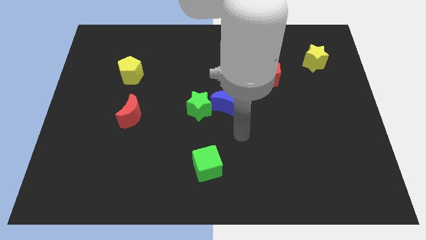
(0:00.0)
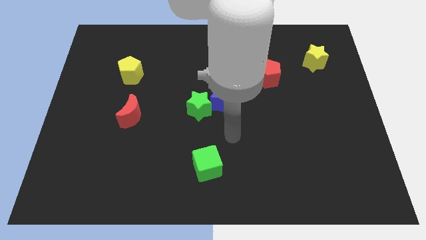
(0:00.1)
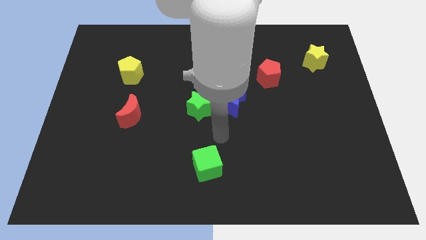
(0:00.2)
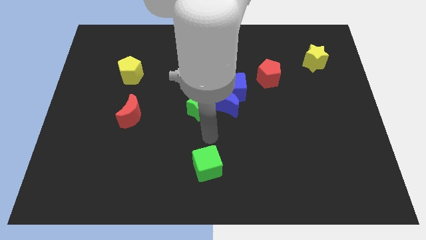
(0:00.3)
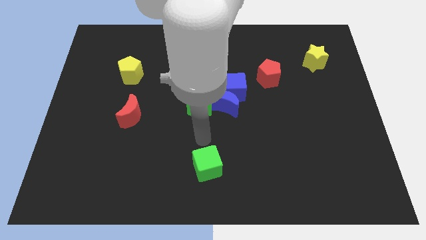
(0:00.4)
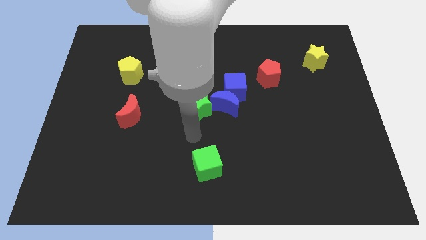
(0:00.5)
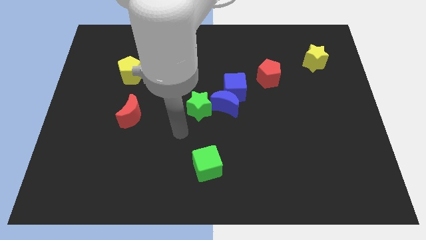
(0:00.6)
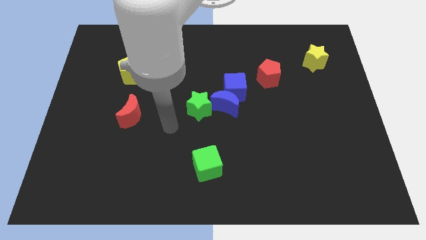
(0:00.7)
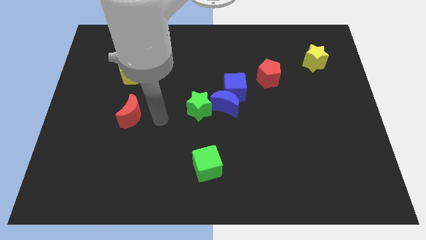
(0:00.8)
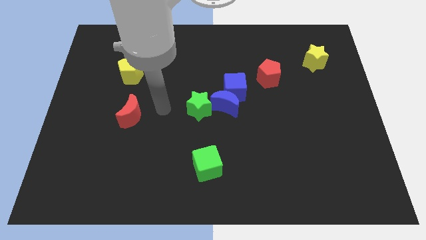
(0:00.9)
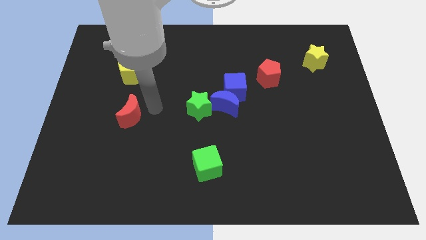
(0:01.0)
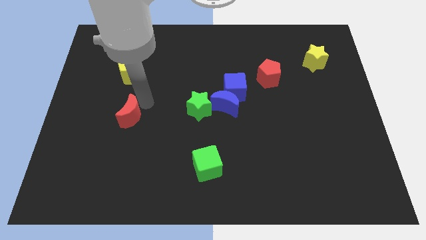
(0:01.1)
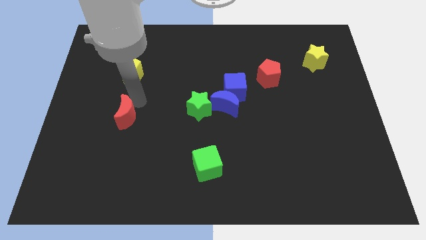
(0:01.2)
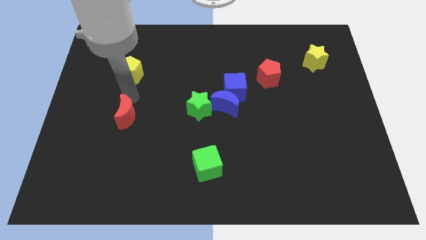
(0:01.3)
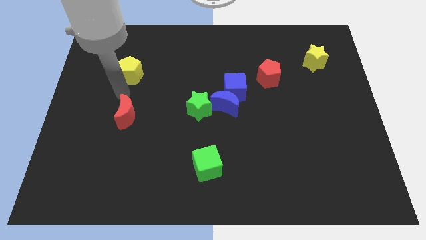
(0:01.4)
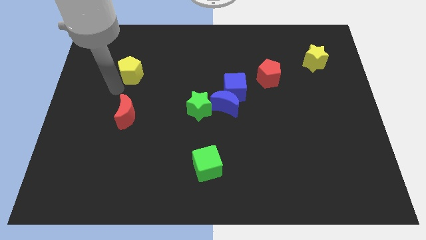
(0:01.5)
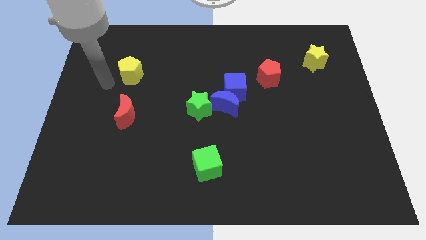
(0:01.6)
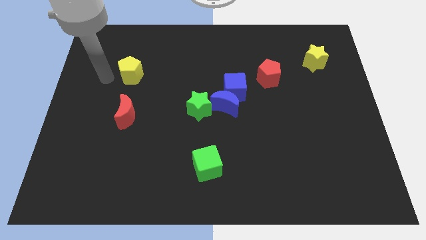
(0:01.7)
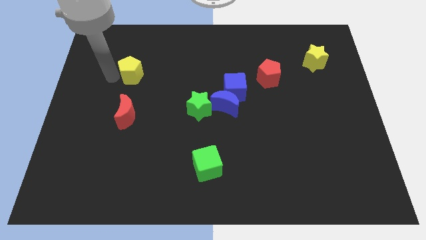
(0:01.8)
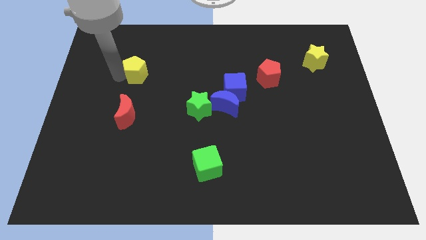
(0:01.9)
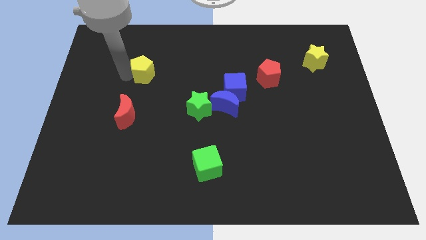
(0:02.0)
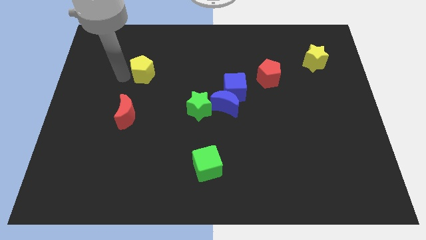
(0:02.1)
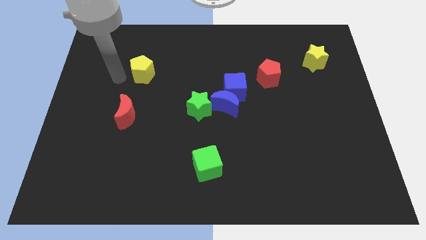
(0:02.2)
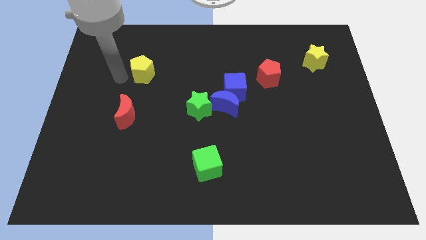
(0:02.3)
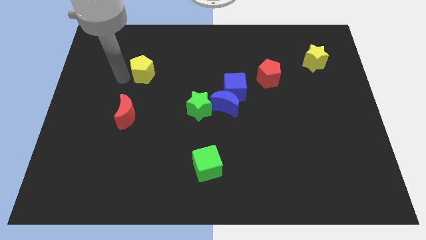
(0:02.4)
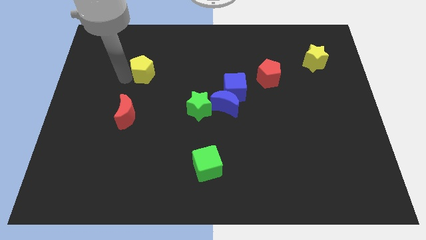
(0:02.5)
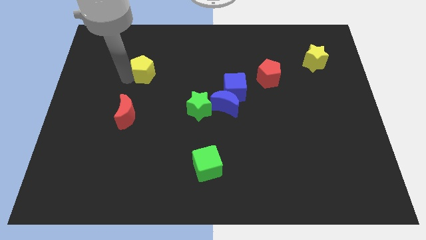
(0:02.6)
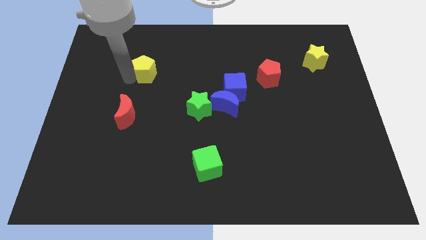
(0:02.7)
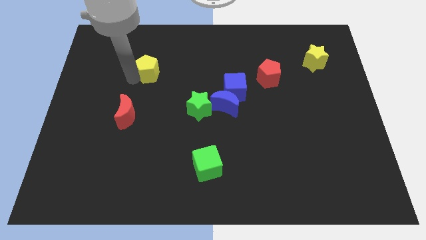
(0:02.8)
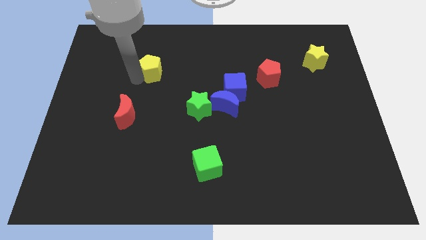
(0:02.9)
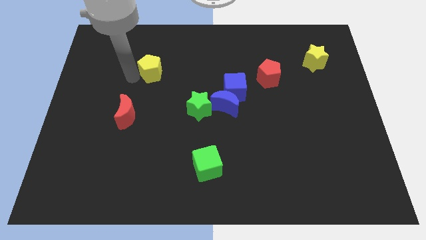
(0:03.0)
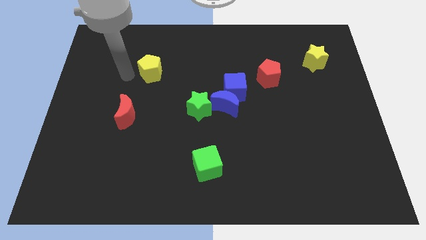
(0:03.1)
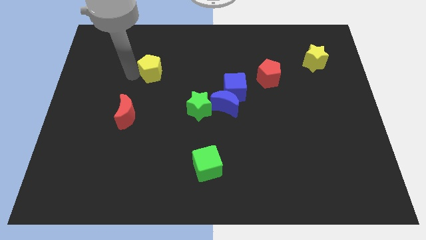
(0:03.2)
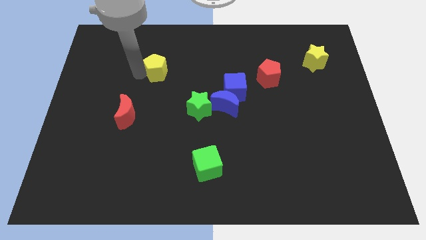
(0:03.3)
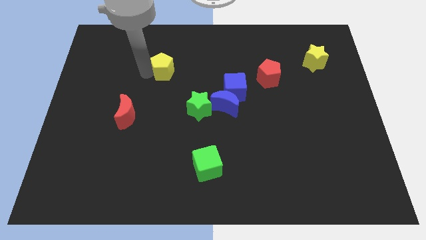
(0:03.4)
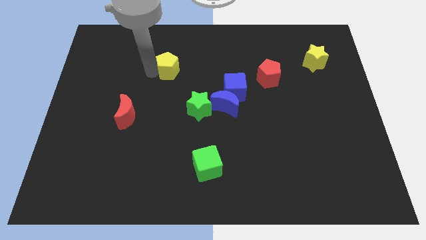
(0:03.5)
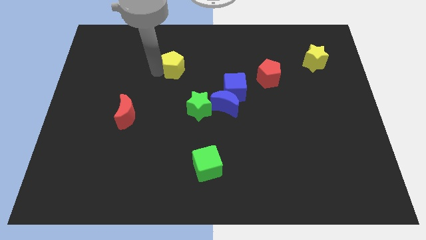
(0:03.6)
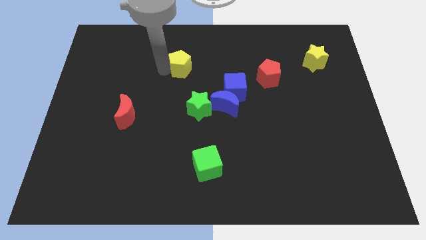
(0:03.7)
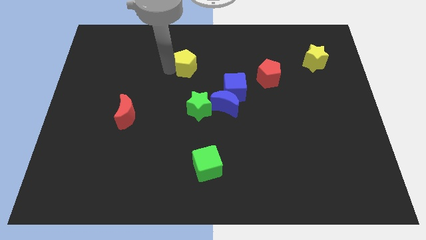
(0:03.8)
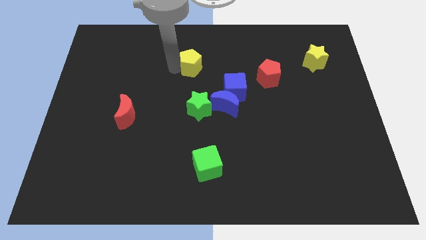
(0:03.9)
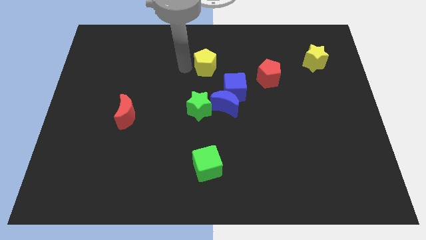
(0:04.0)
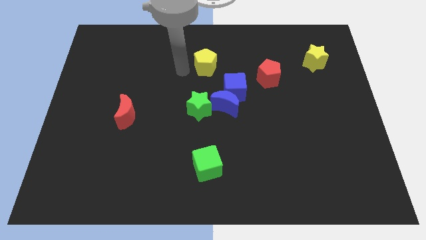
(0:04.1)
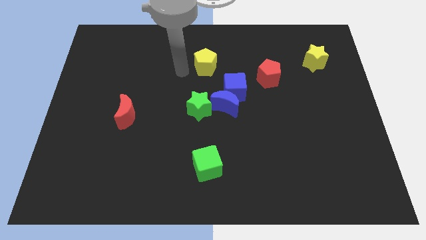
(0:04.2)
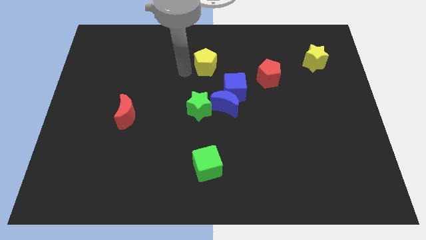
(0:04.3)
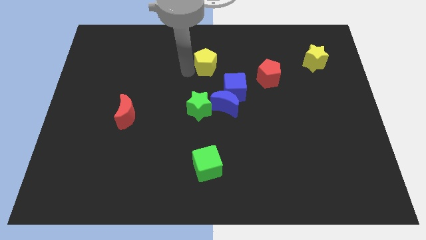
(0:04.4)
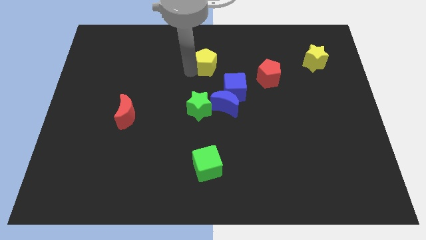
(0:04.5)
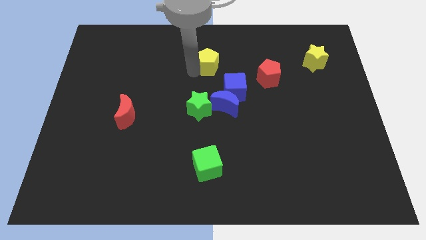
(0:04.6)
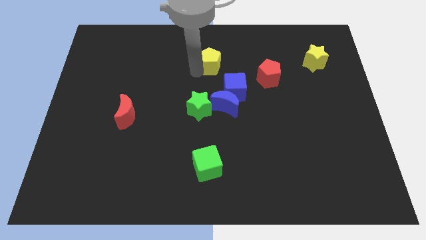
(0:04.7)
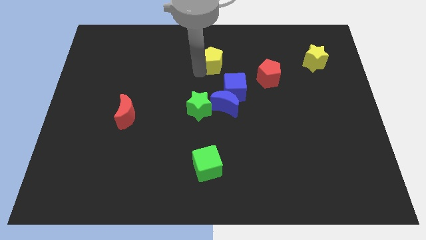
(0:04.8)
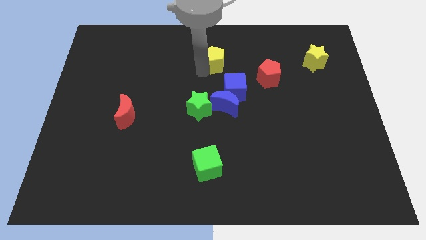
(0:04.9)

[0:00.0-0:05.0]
put the yellow pentagon above the blue cube

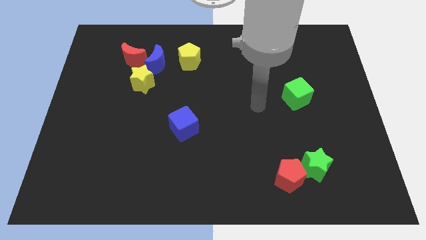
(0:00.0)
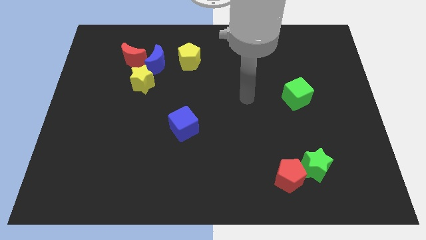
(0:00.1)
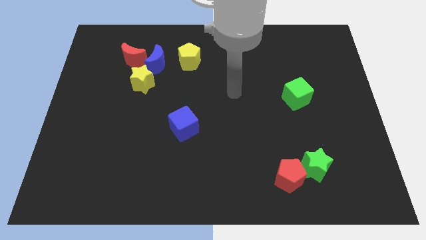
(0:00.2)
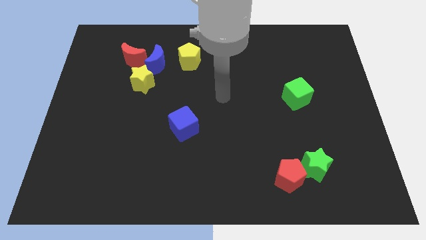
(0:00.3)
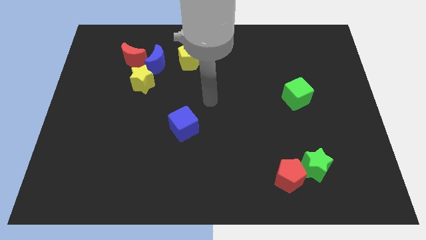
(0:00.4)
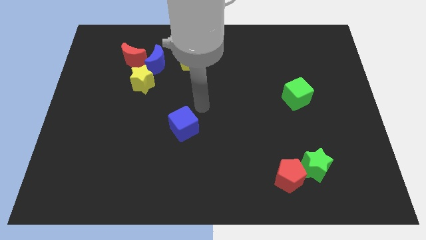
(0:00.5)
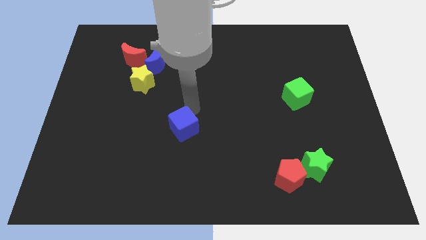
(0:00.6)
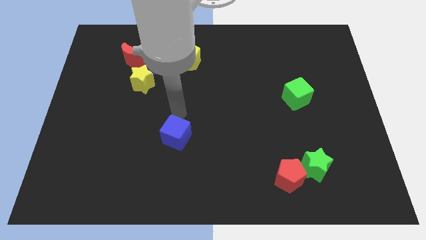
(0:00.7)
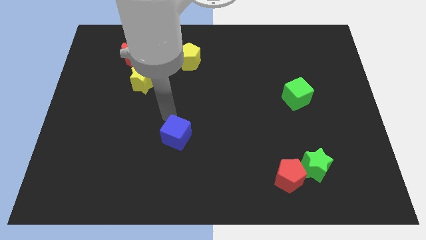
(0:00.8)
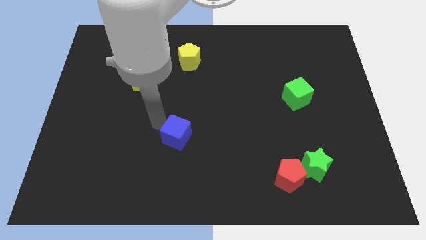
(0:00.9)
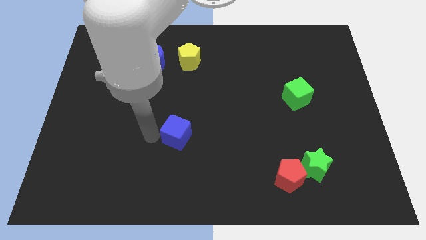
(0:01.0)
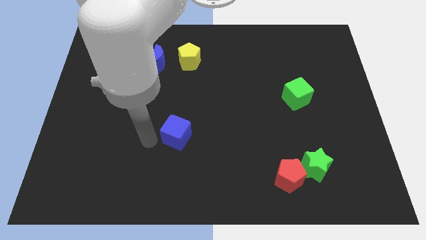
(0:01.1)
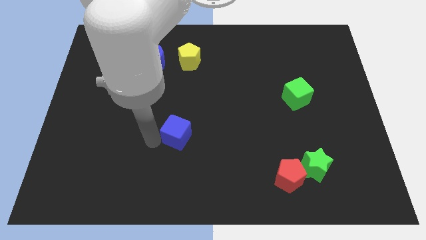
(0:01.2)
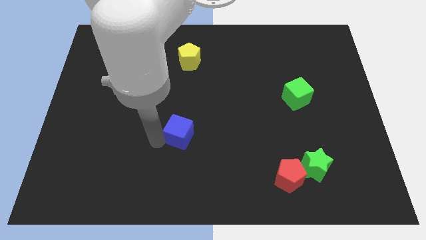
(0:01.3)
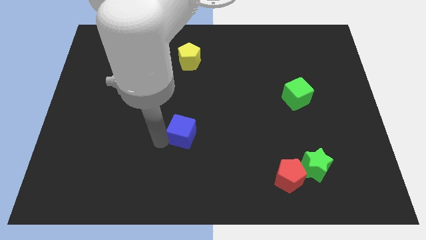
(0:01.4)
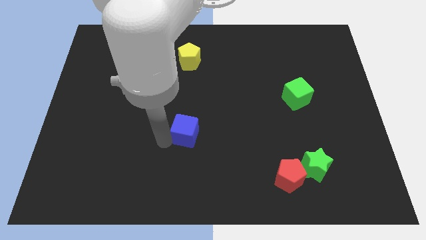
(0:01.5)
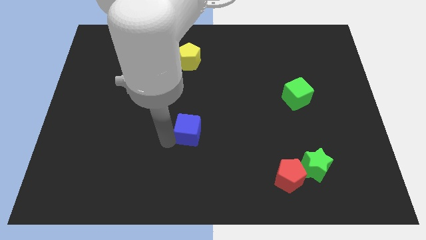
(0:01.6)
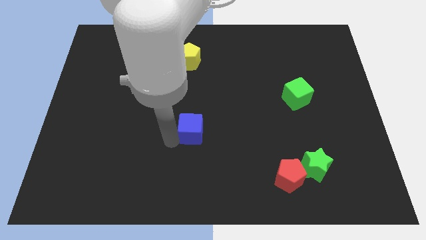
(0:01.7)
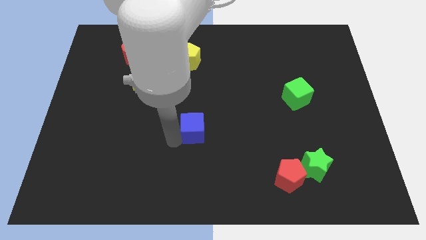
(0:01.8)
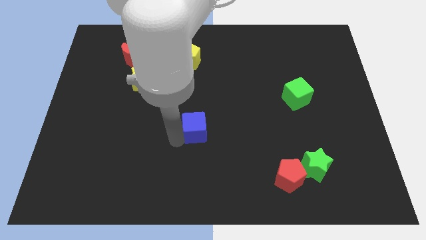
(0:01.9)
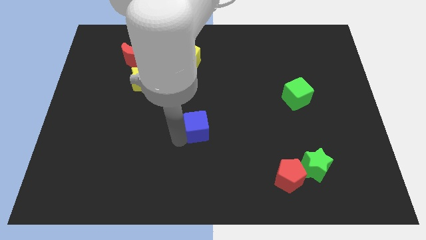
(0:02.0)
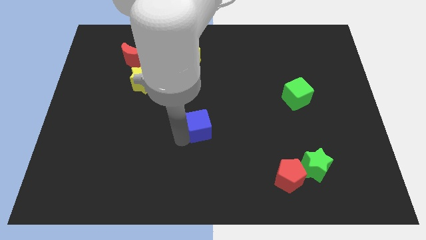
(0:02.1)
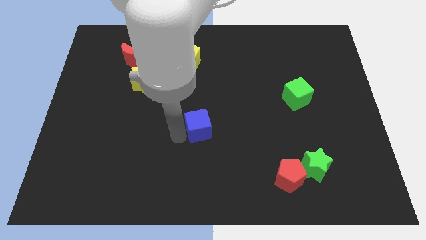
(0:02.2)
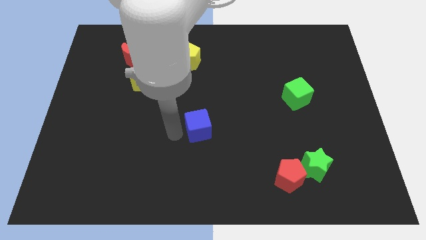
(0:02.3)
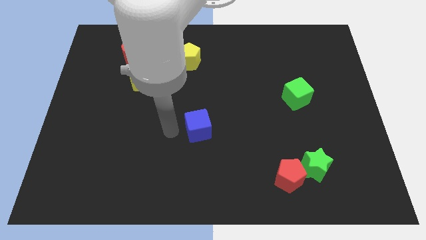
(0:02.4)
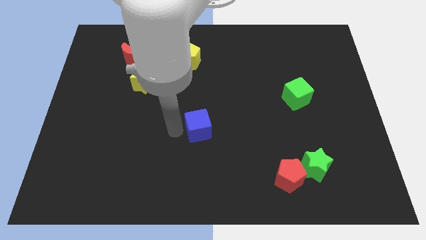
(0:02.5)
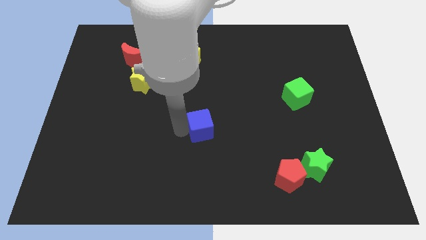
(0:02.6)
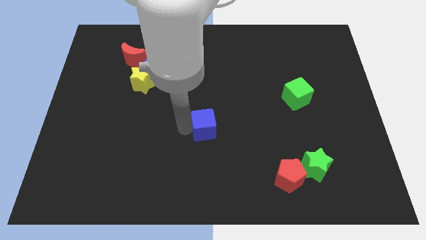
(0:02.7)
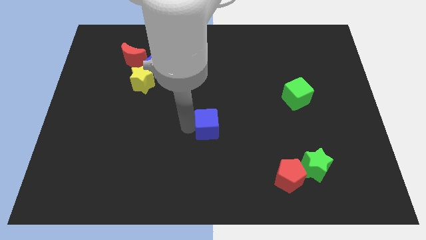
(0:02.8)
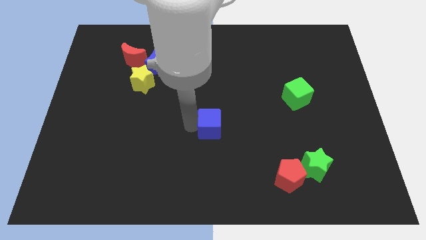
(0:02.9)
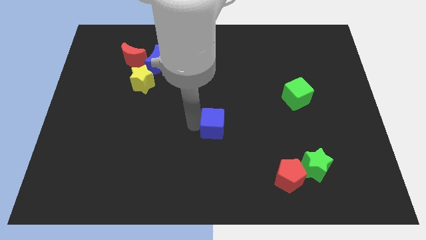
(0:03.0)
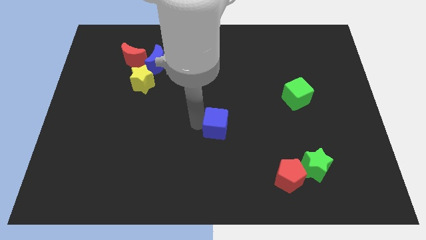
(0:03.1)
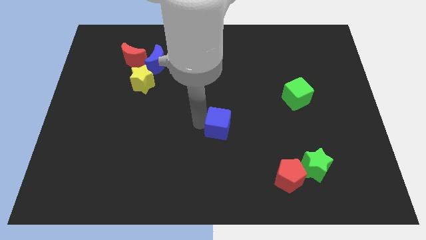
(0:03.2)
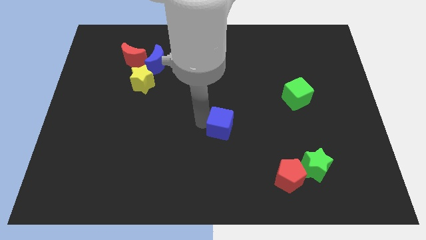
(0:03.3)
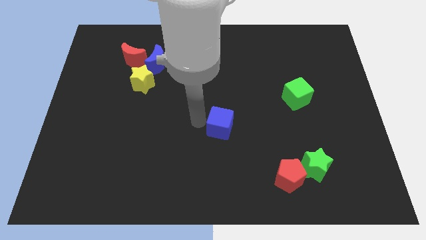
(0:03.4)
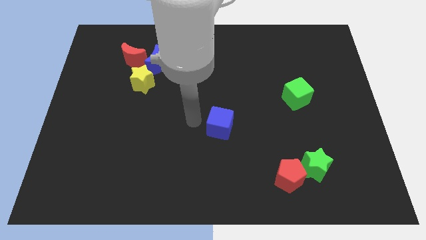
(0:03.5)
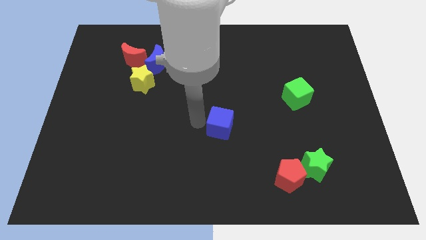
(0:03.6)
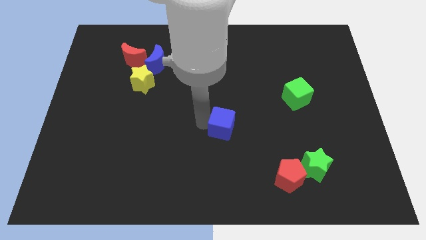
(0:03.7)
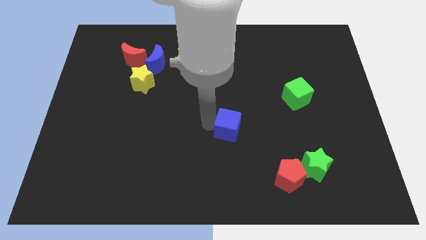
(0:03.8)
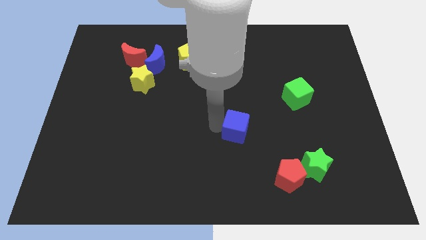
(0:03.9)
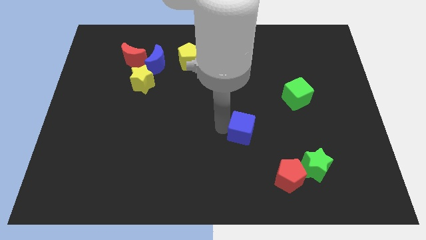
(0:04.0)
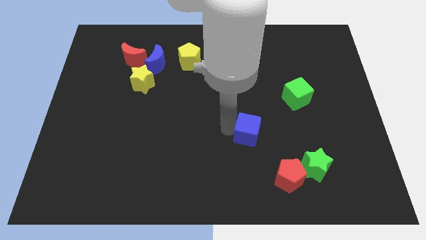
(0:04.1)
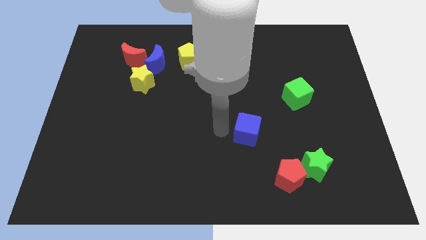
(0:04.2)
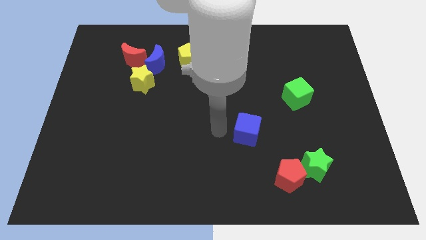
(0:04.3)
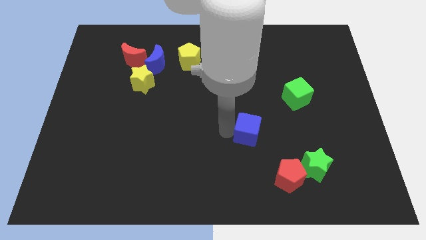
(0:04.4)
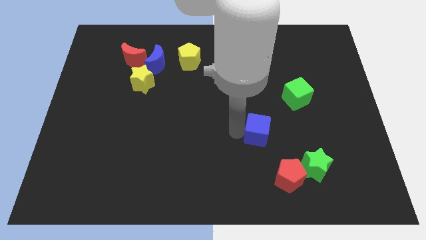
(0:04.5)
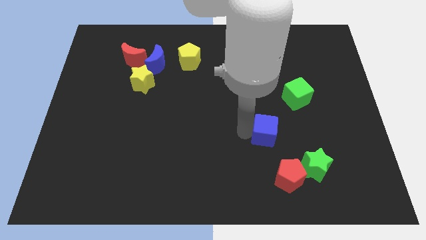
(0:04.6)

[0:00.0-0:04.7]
push the blue cube to the top of the red pentagon
